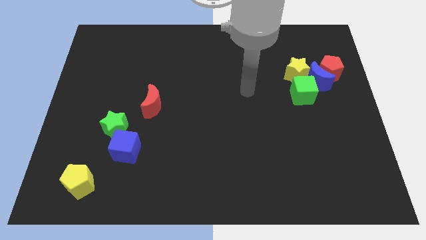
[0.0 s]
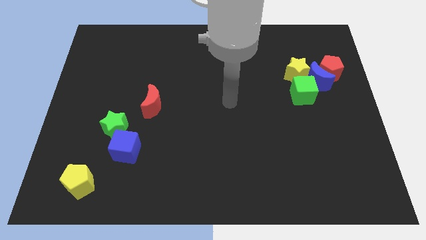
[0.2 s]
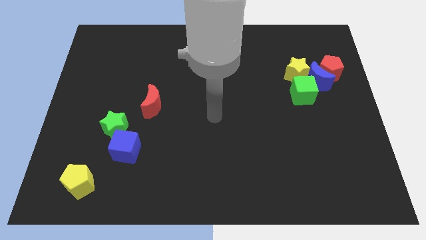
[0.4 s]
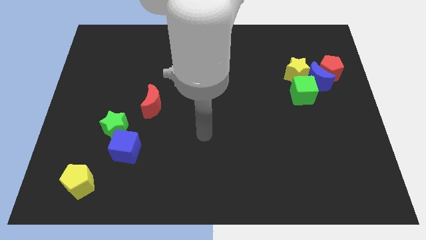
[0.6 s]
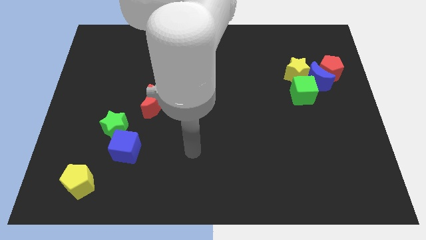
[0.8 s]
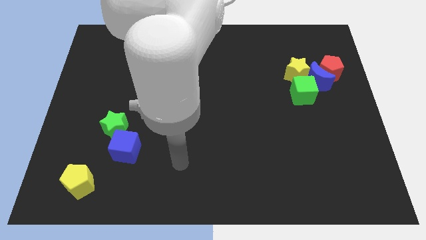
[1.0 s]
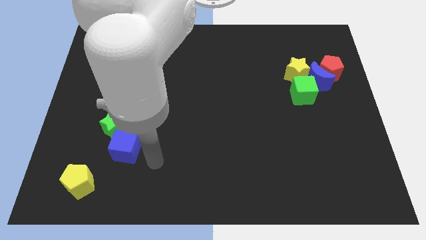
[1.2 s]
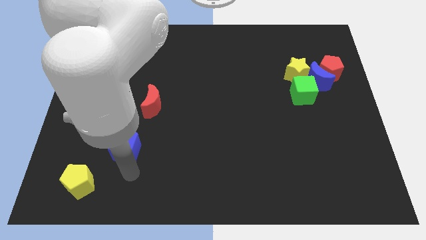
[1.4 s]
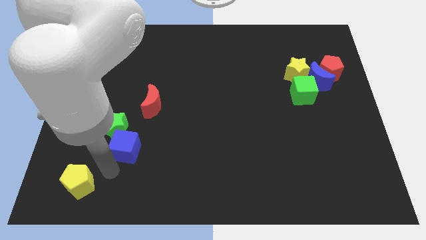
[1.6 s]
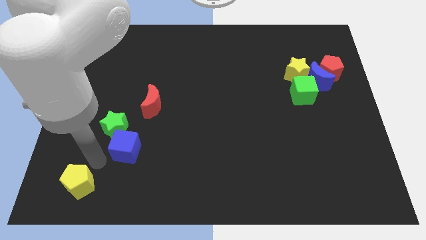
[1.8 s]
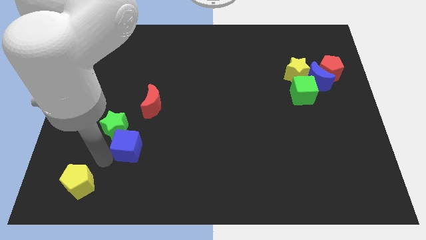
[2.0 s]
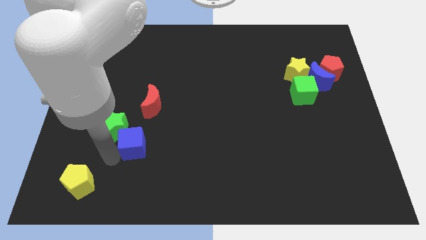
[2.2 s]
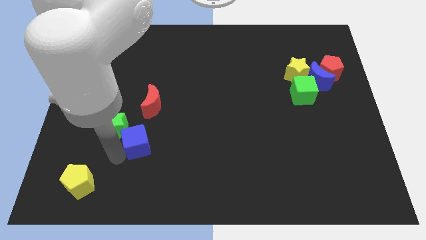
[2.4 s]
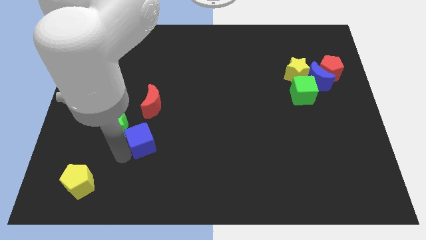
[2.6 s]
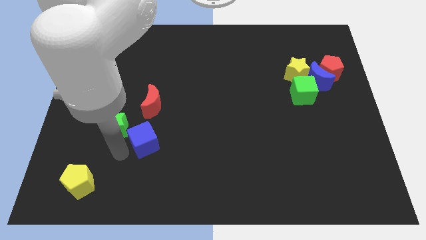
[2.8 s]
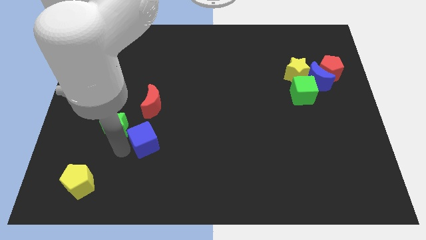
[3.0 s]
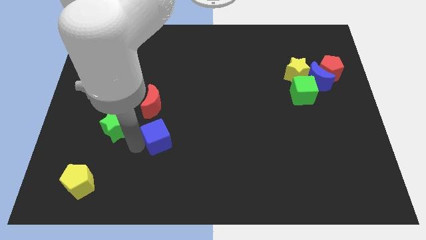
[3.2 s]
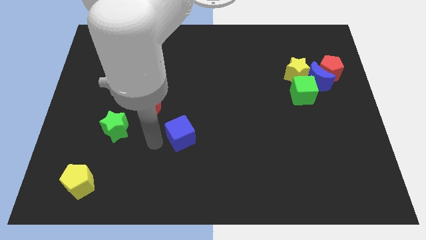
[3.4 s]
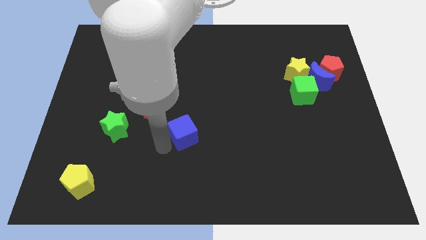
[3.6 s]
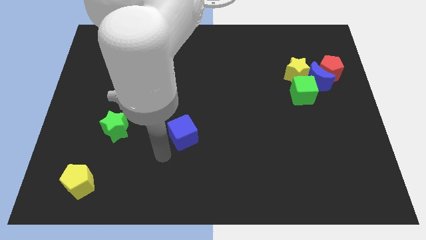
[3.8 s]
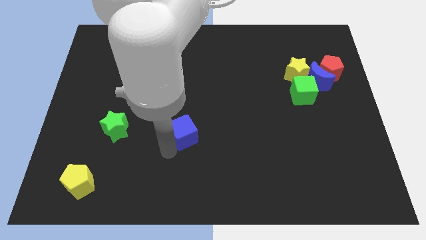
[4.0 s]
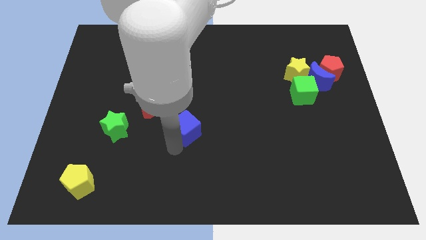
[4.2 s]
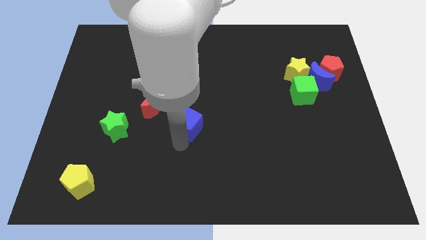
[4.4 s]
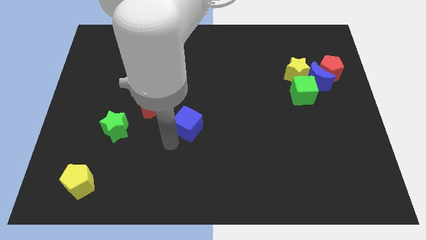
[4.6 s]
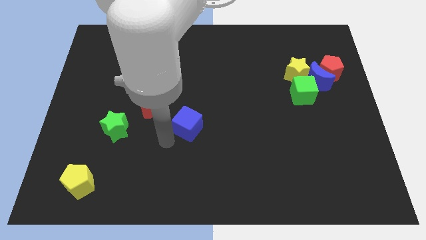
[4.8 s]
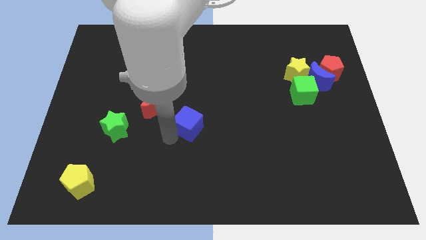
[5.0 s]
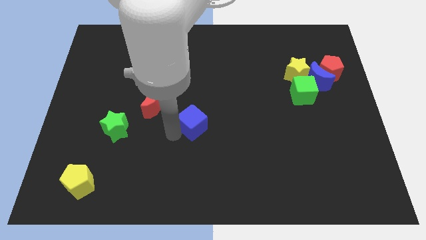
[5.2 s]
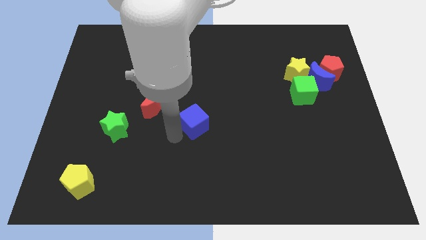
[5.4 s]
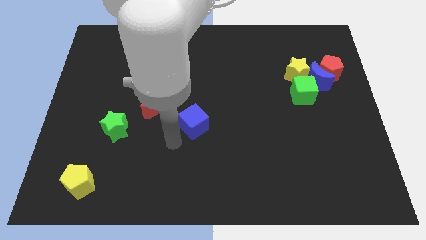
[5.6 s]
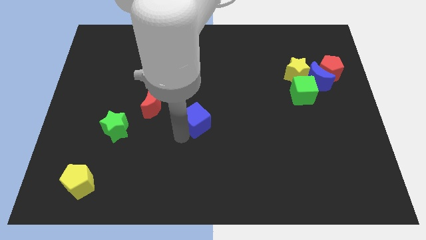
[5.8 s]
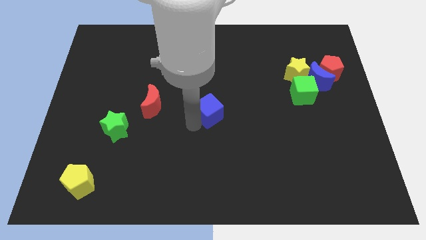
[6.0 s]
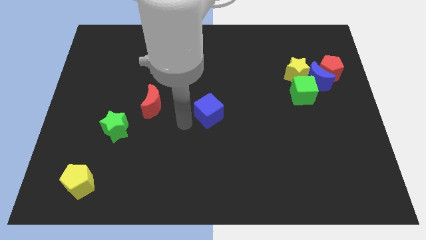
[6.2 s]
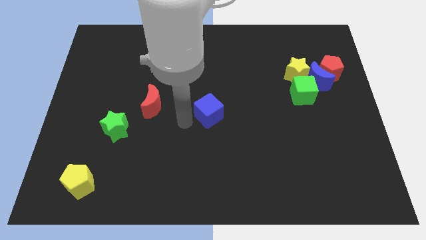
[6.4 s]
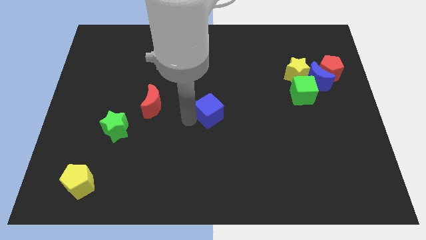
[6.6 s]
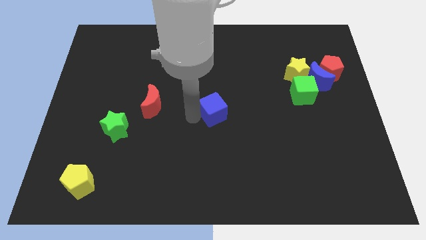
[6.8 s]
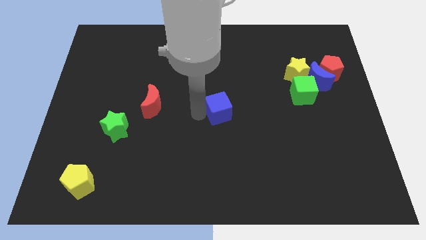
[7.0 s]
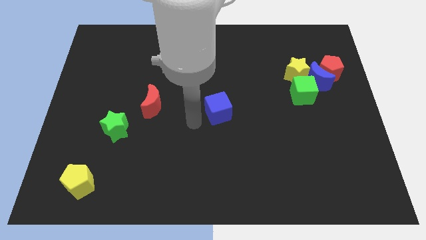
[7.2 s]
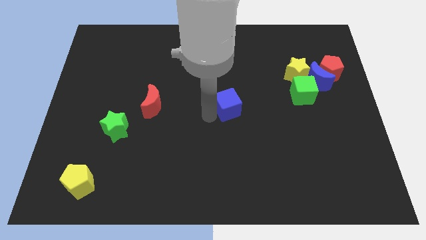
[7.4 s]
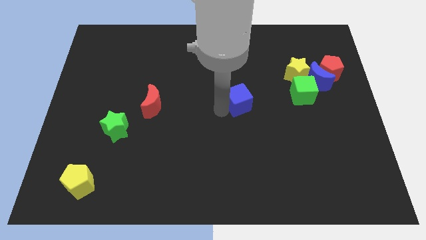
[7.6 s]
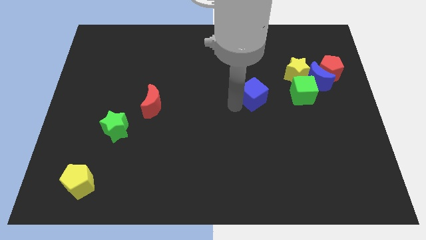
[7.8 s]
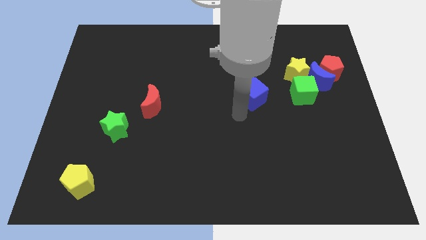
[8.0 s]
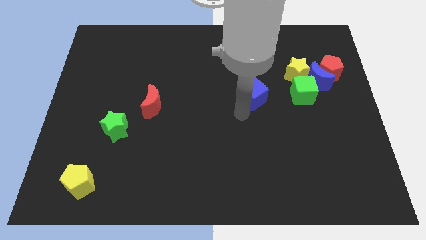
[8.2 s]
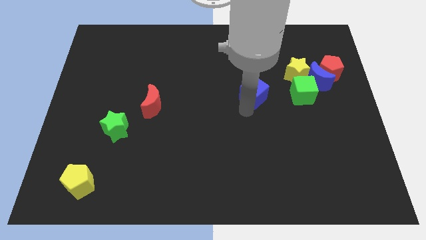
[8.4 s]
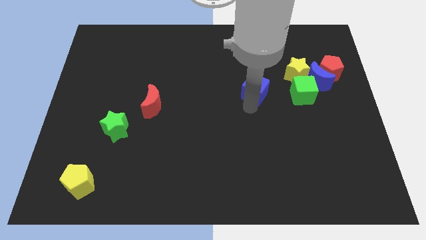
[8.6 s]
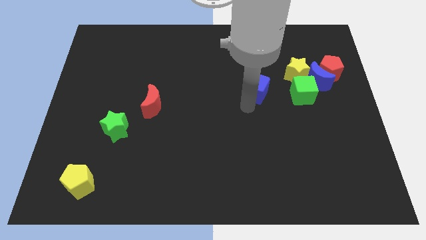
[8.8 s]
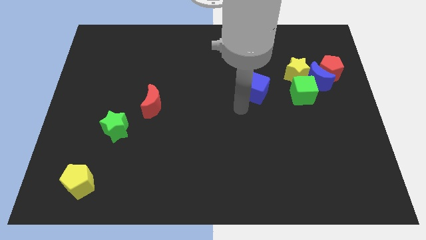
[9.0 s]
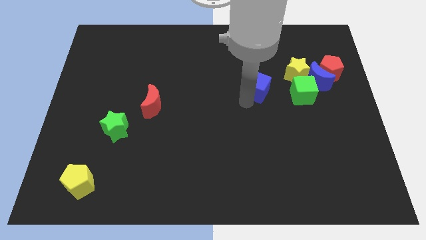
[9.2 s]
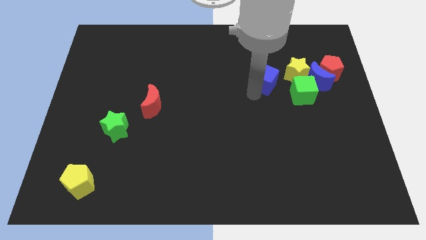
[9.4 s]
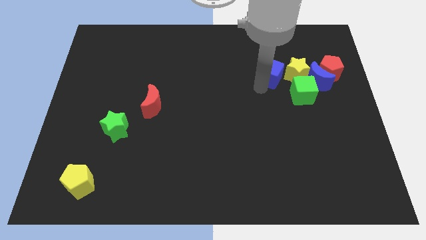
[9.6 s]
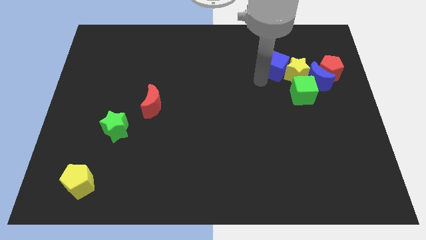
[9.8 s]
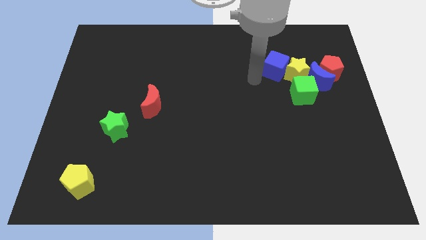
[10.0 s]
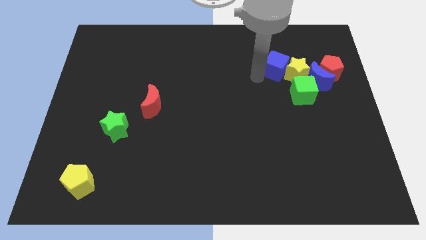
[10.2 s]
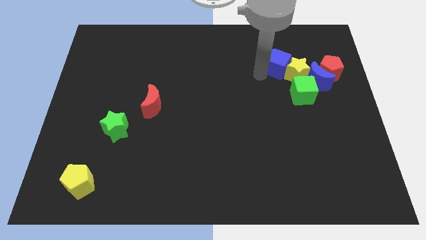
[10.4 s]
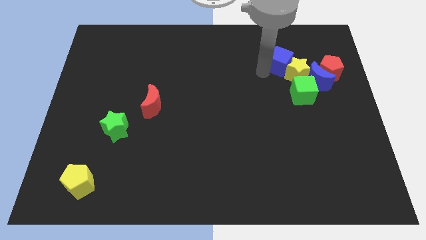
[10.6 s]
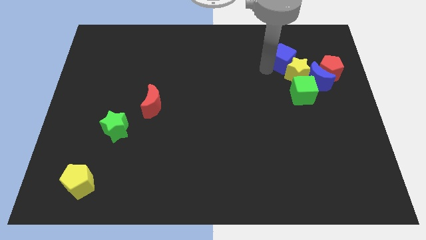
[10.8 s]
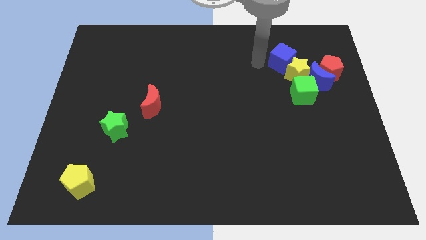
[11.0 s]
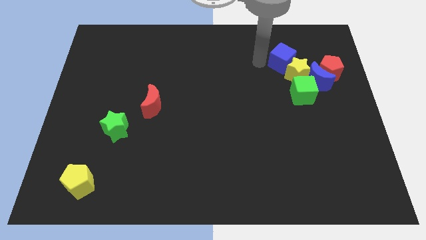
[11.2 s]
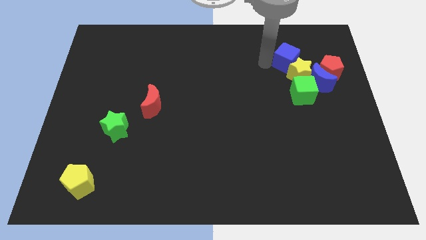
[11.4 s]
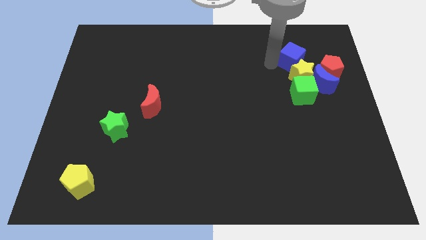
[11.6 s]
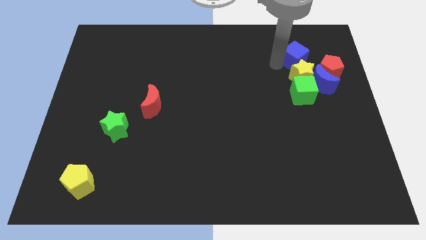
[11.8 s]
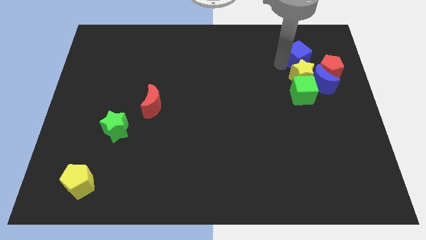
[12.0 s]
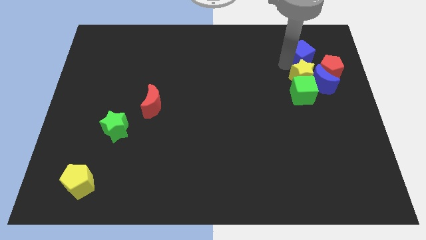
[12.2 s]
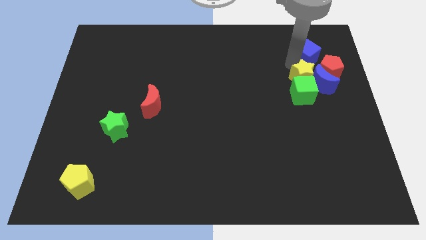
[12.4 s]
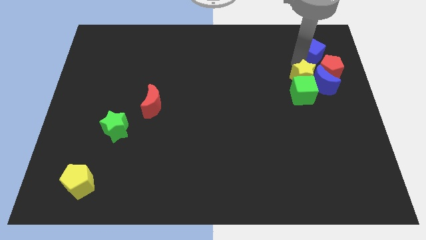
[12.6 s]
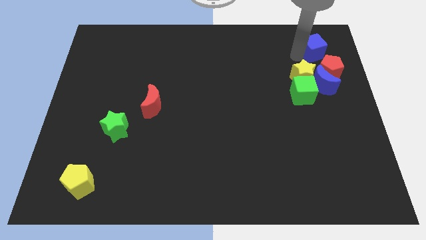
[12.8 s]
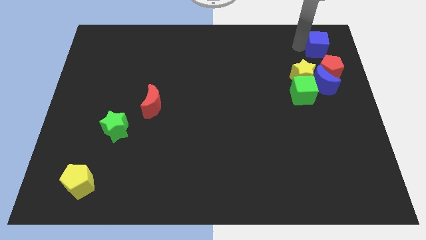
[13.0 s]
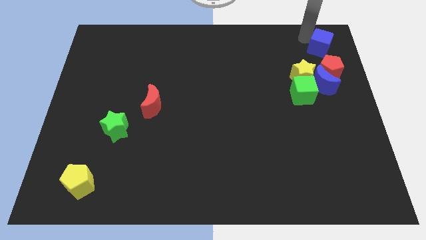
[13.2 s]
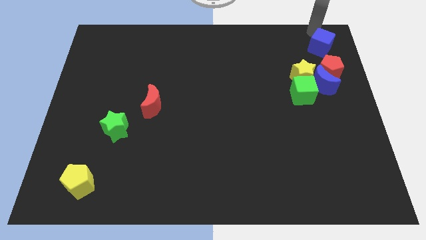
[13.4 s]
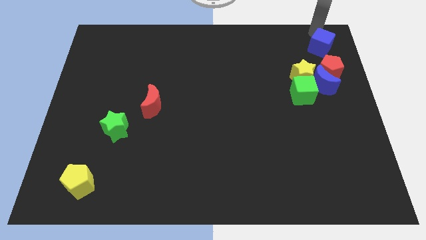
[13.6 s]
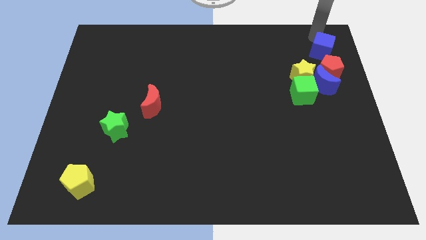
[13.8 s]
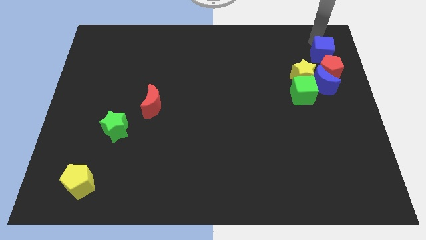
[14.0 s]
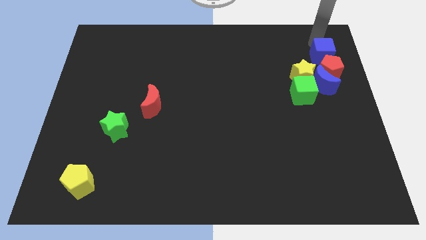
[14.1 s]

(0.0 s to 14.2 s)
put the blue cube towards the red pentagon

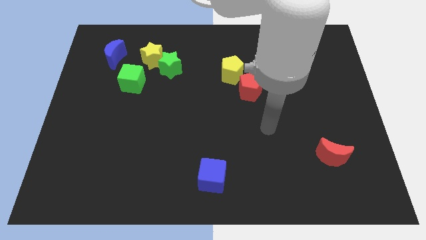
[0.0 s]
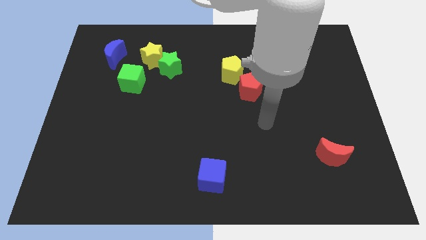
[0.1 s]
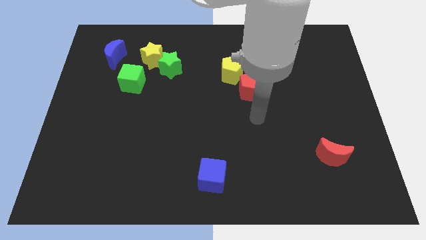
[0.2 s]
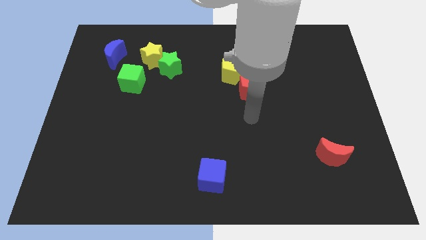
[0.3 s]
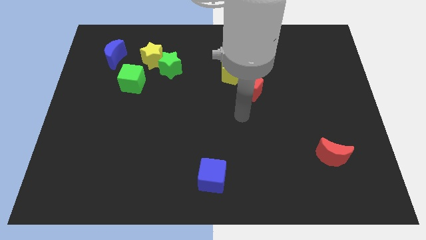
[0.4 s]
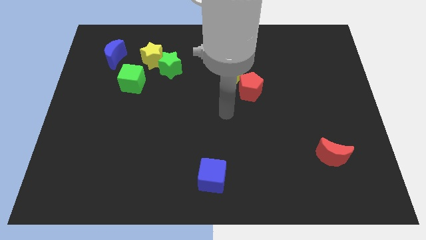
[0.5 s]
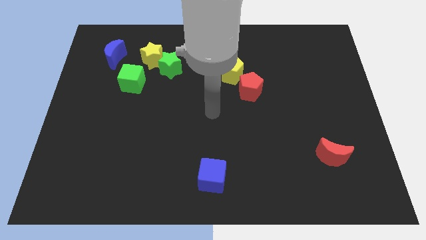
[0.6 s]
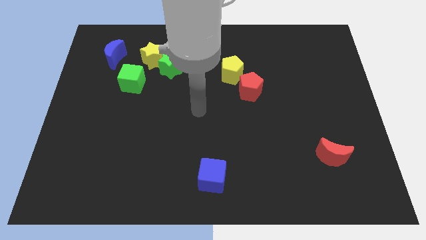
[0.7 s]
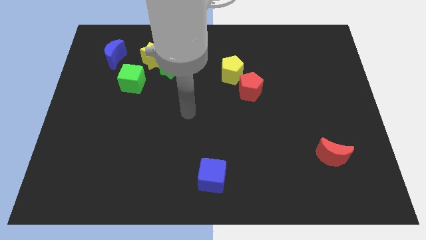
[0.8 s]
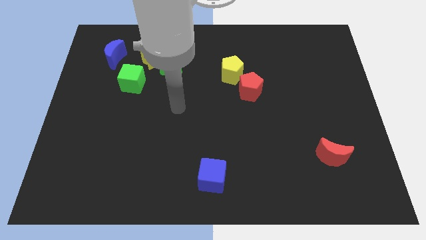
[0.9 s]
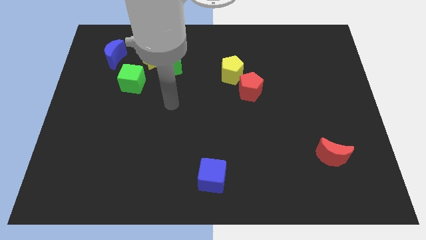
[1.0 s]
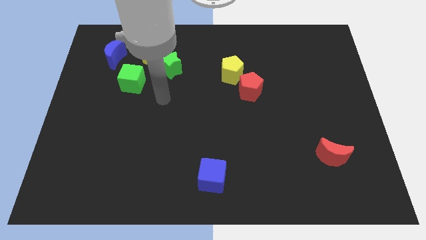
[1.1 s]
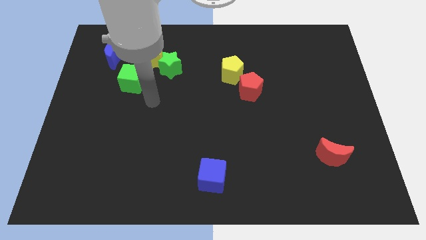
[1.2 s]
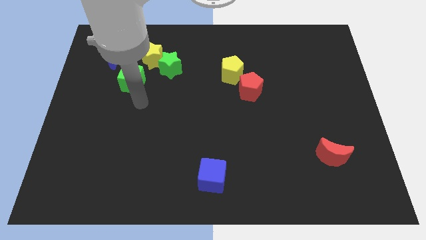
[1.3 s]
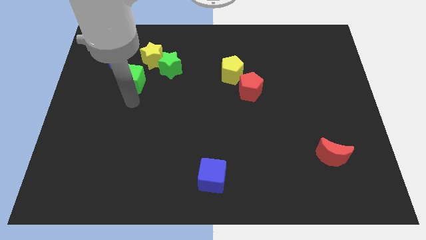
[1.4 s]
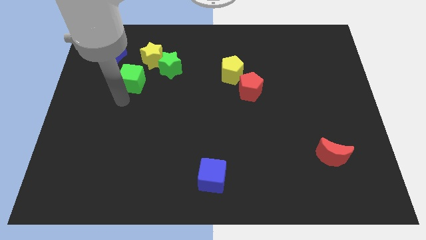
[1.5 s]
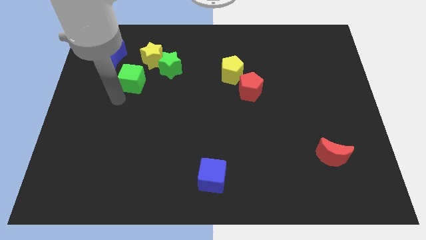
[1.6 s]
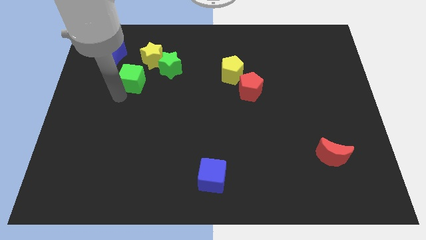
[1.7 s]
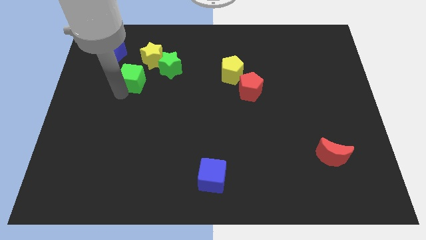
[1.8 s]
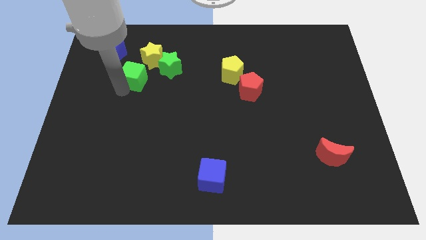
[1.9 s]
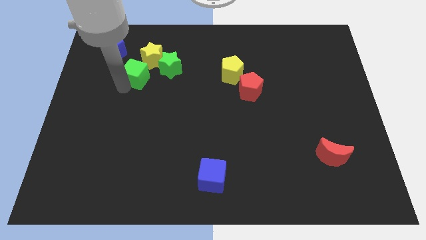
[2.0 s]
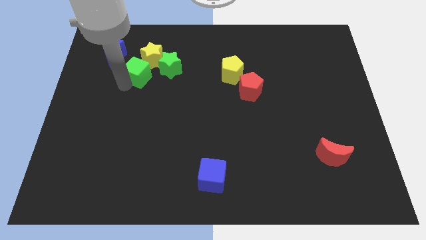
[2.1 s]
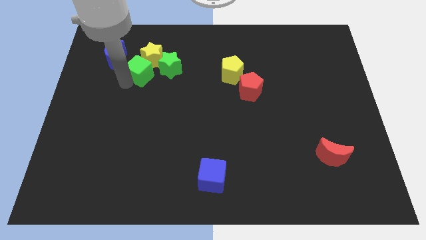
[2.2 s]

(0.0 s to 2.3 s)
put the green cube close to the yellow star
